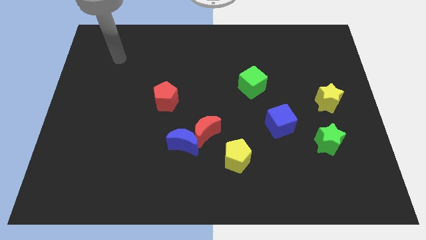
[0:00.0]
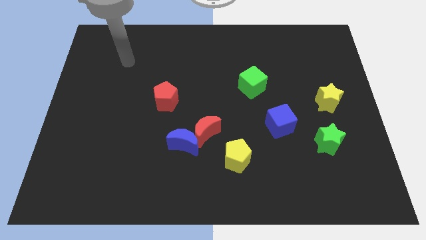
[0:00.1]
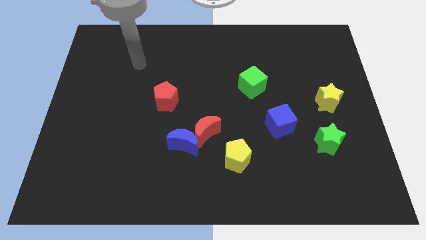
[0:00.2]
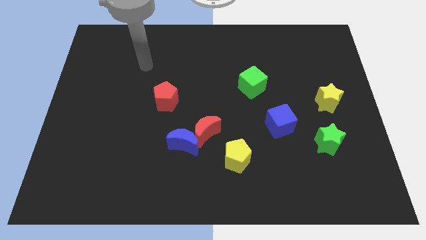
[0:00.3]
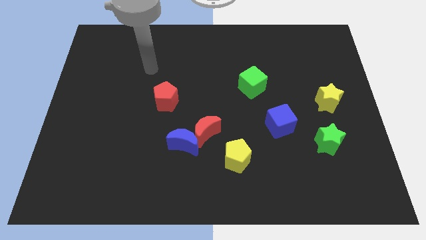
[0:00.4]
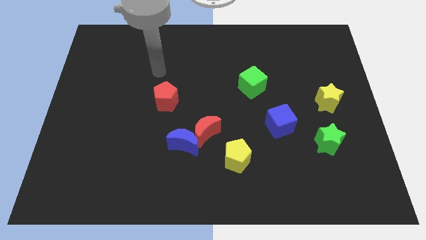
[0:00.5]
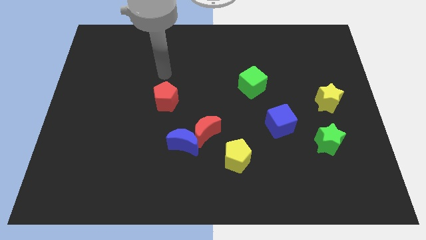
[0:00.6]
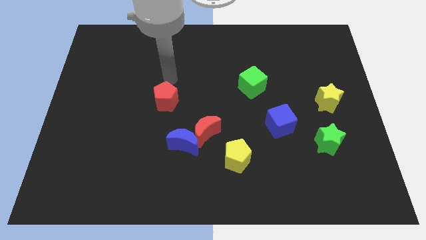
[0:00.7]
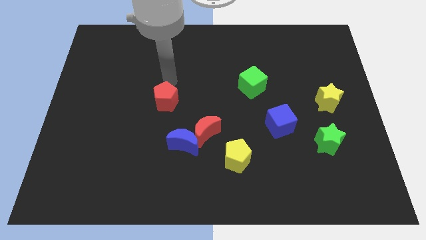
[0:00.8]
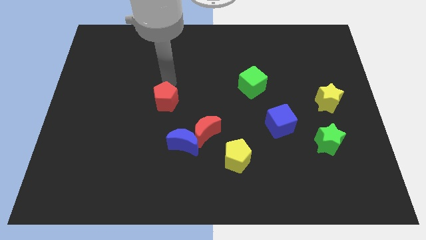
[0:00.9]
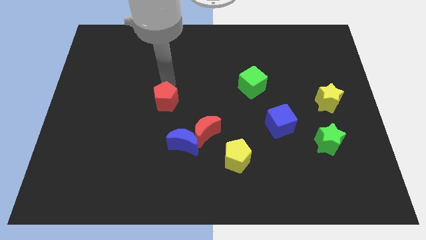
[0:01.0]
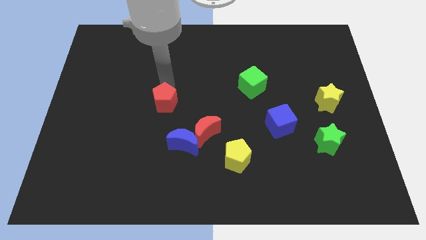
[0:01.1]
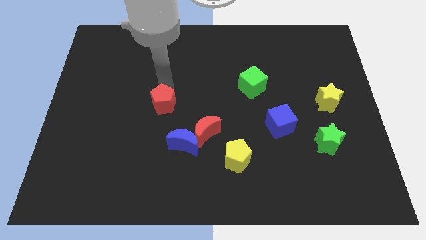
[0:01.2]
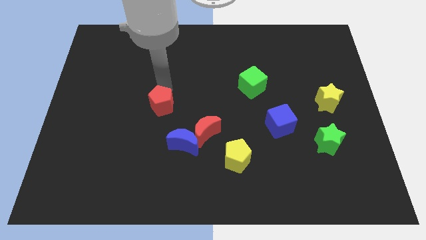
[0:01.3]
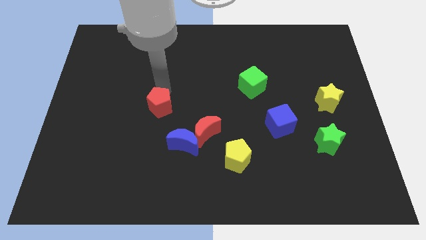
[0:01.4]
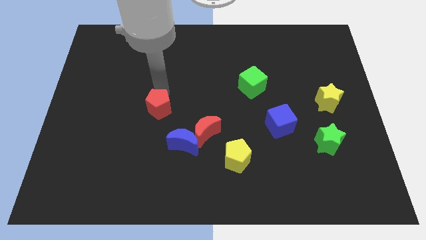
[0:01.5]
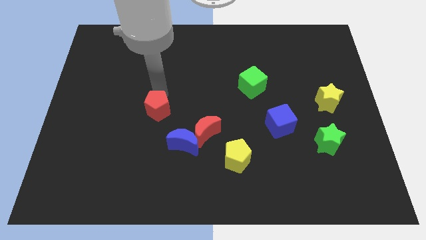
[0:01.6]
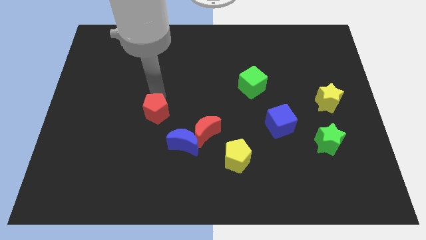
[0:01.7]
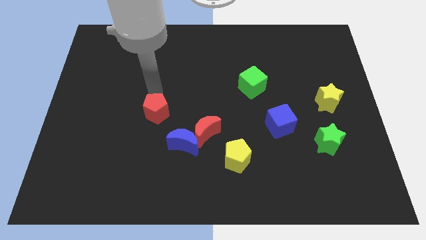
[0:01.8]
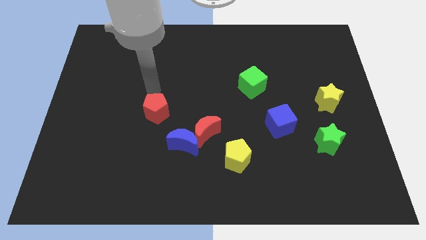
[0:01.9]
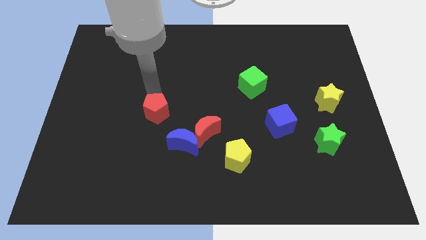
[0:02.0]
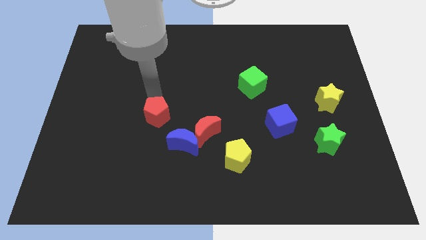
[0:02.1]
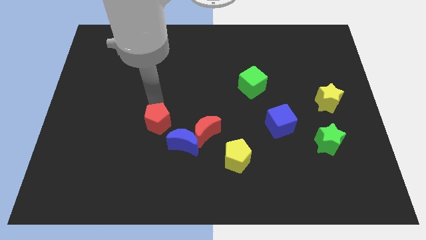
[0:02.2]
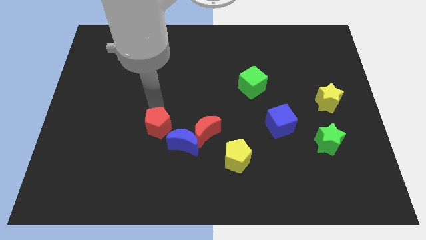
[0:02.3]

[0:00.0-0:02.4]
slightly push the red pentagon down
